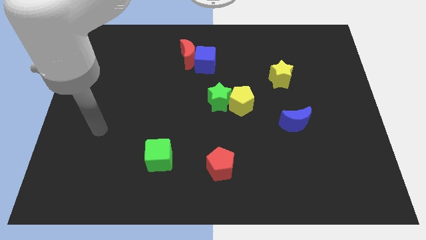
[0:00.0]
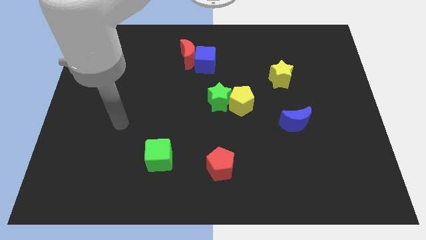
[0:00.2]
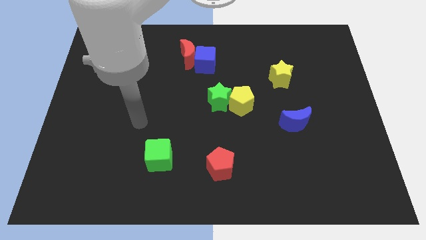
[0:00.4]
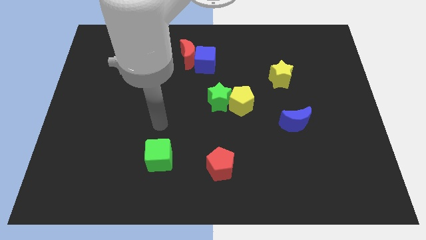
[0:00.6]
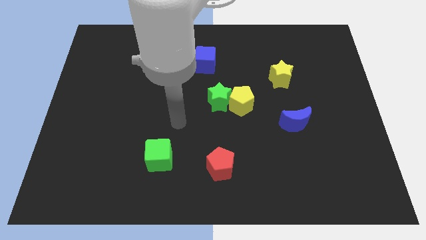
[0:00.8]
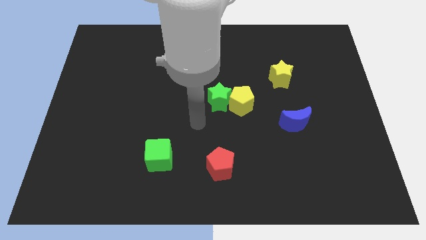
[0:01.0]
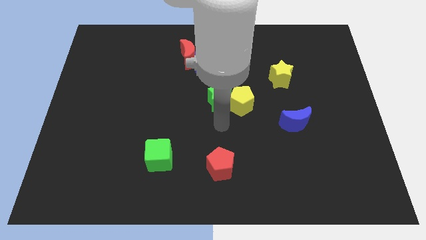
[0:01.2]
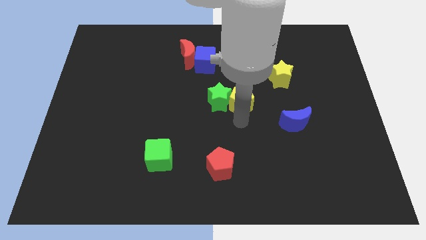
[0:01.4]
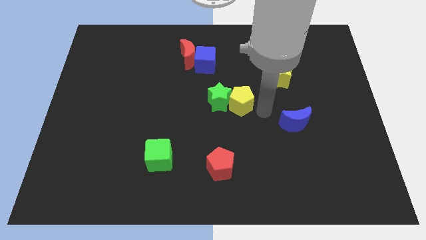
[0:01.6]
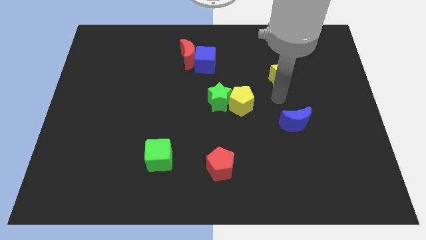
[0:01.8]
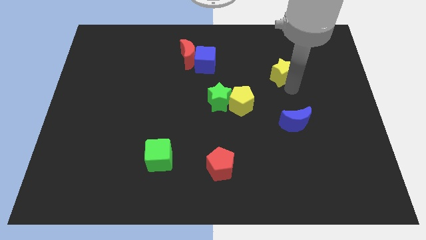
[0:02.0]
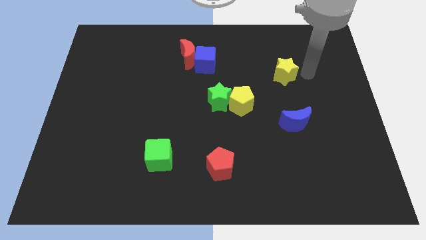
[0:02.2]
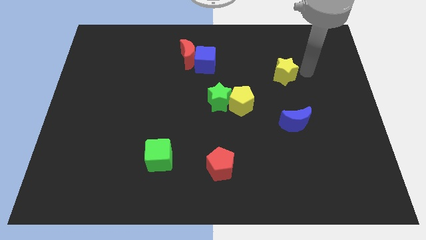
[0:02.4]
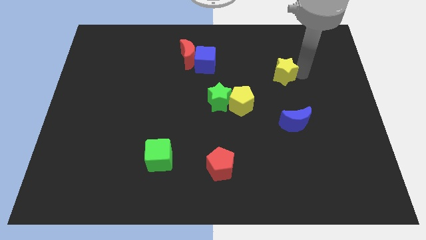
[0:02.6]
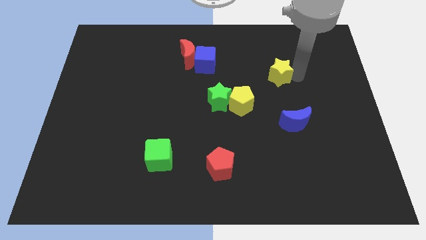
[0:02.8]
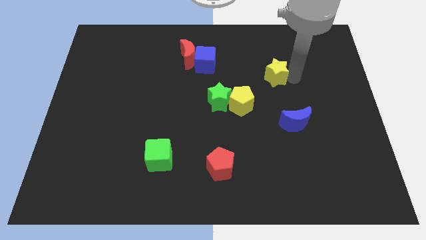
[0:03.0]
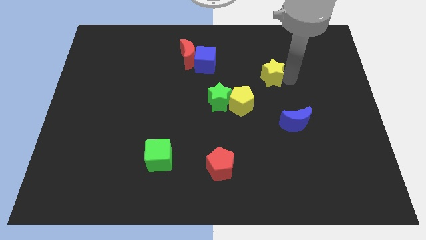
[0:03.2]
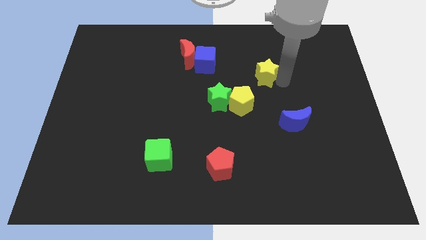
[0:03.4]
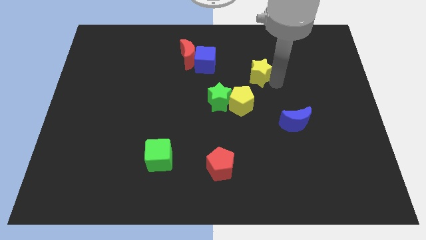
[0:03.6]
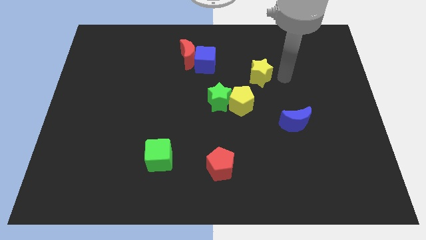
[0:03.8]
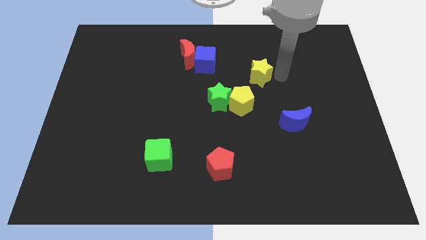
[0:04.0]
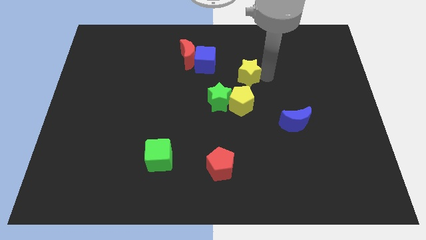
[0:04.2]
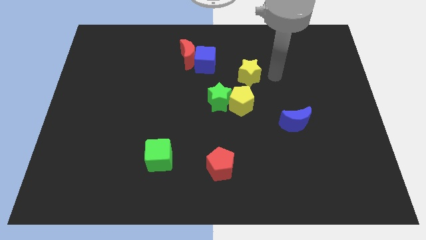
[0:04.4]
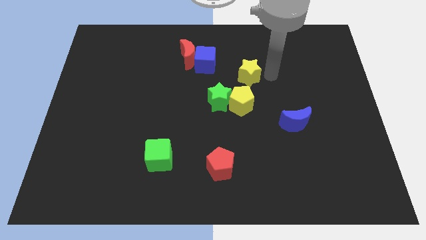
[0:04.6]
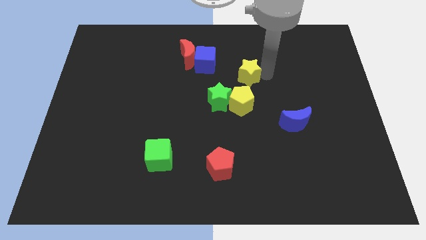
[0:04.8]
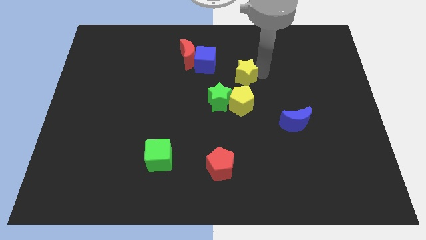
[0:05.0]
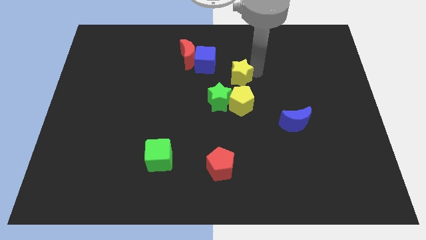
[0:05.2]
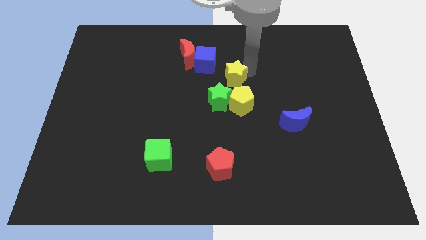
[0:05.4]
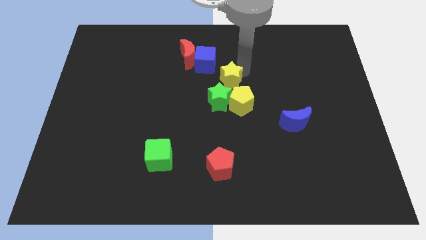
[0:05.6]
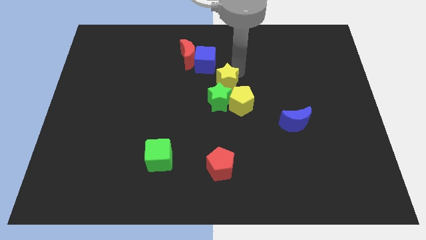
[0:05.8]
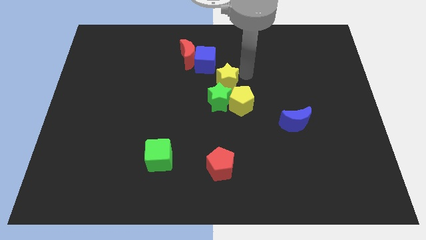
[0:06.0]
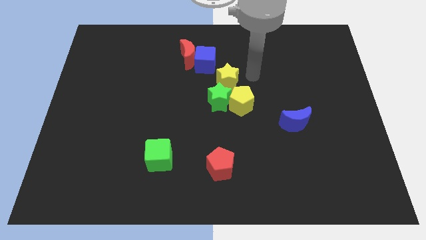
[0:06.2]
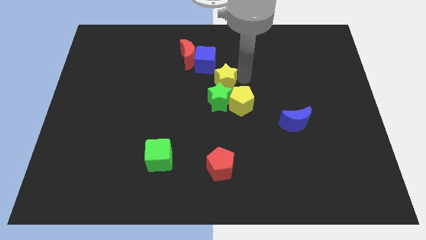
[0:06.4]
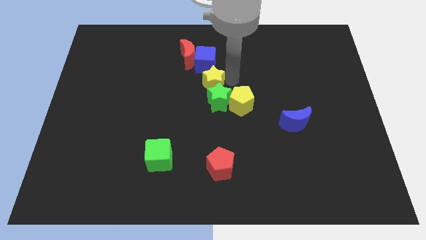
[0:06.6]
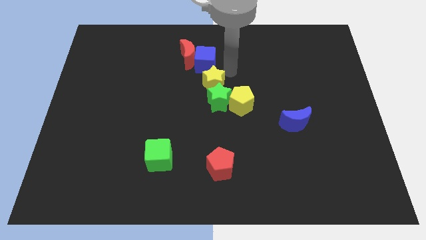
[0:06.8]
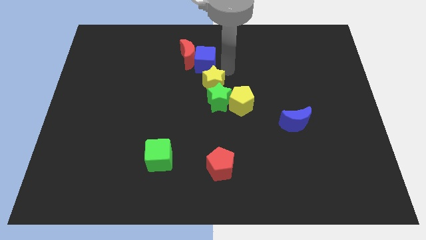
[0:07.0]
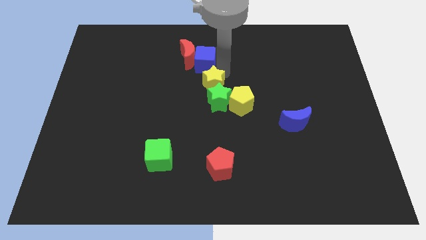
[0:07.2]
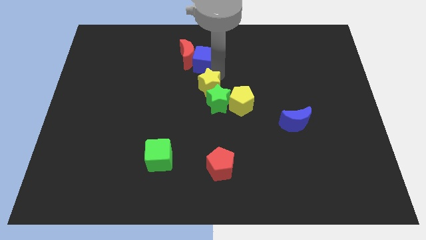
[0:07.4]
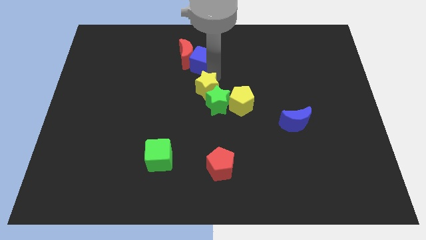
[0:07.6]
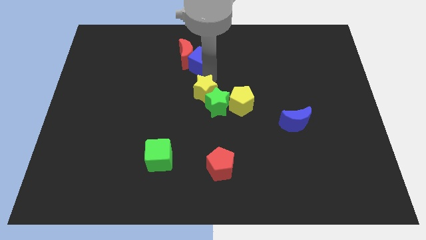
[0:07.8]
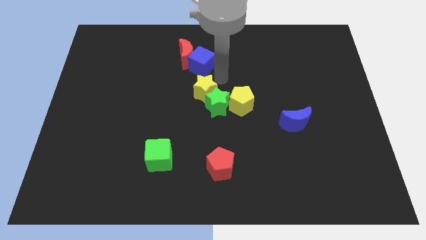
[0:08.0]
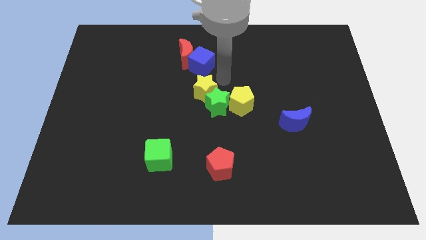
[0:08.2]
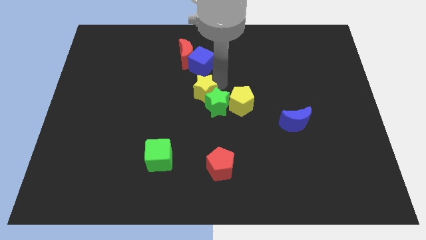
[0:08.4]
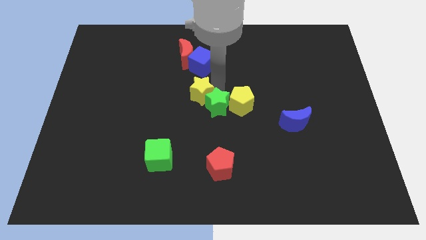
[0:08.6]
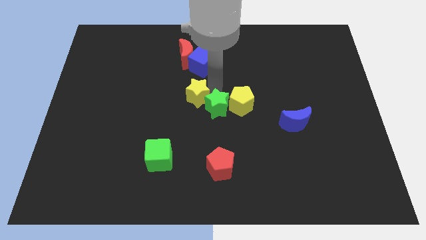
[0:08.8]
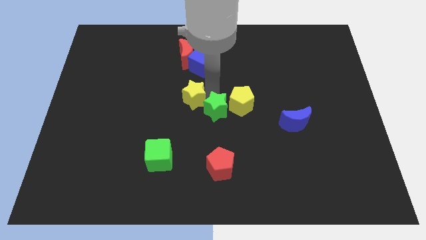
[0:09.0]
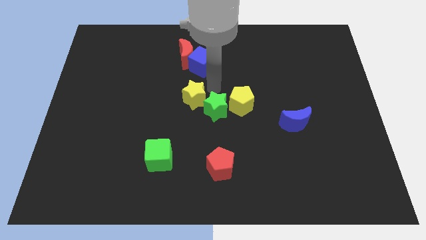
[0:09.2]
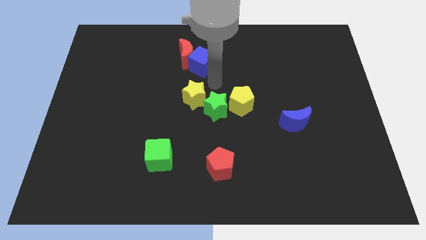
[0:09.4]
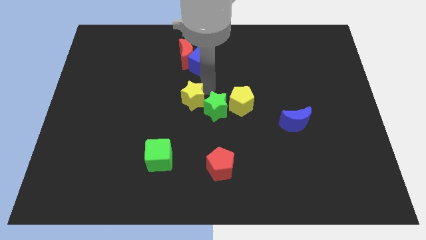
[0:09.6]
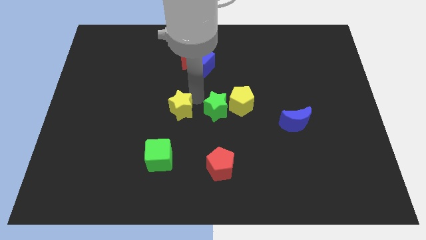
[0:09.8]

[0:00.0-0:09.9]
put the yellow star above the green cube

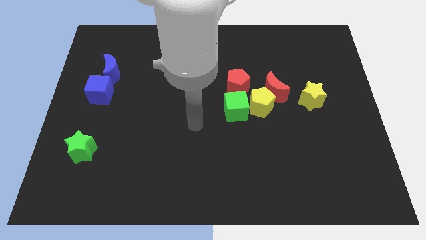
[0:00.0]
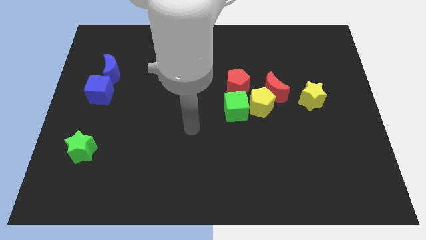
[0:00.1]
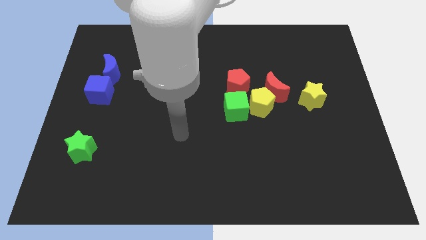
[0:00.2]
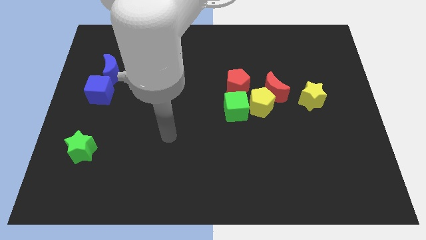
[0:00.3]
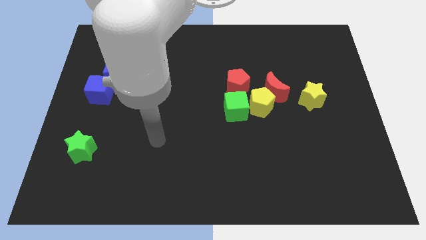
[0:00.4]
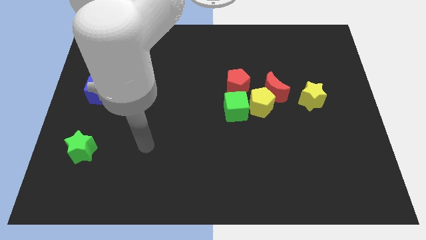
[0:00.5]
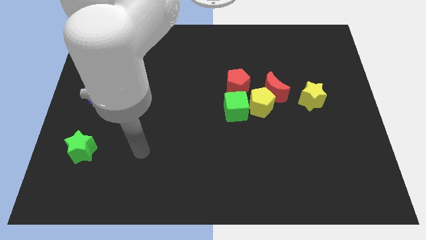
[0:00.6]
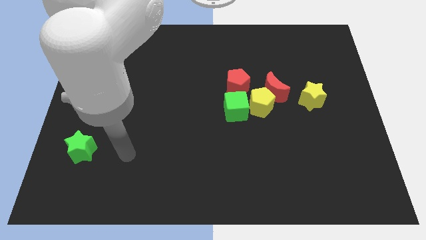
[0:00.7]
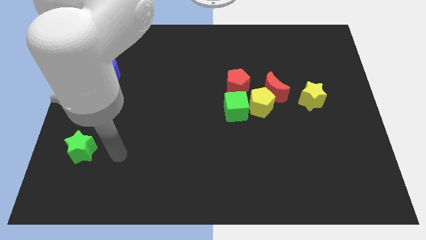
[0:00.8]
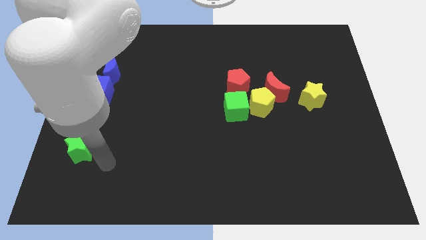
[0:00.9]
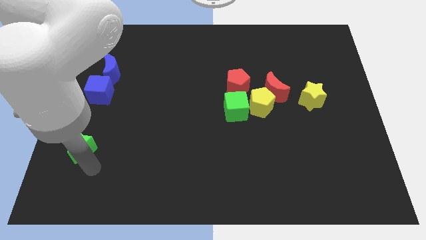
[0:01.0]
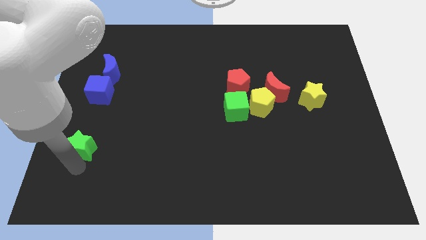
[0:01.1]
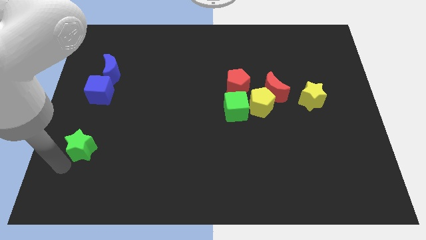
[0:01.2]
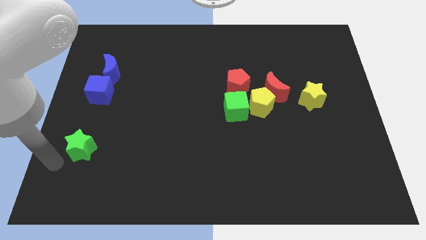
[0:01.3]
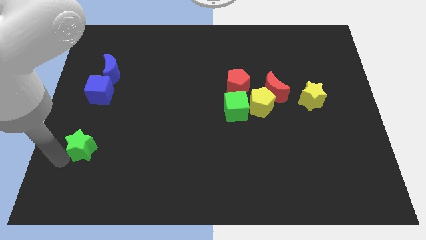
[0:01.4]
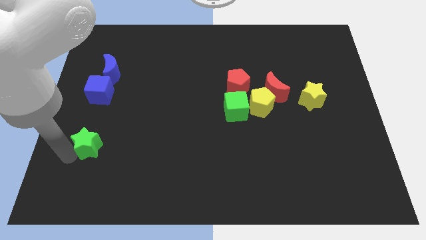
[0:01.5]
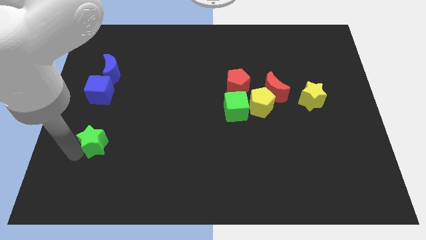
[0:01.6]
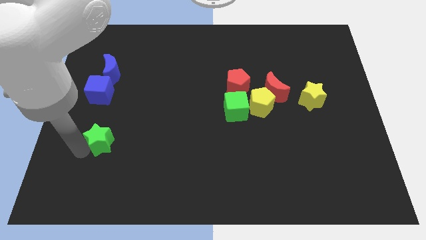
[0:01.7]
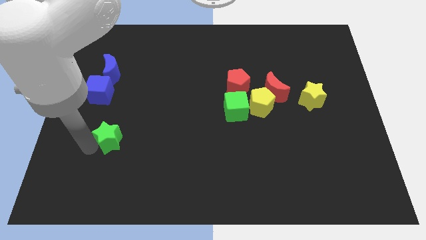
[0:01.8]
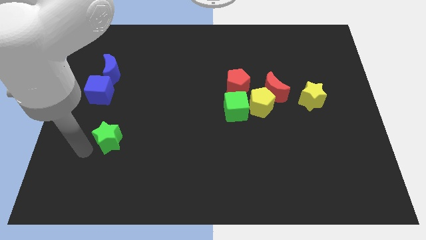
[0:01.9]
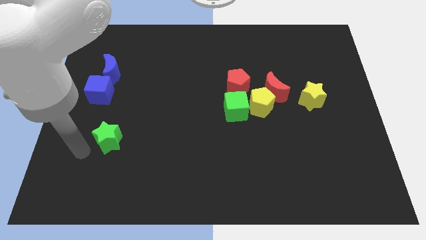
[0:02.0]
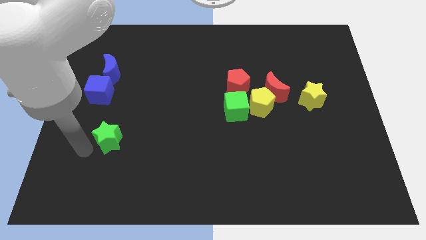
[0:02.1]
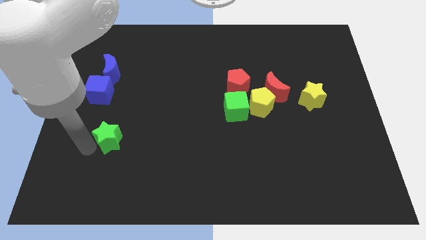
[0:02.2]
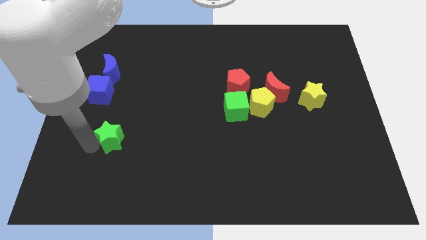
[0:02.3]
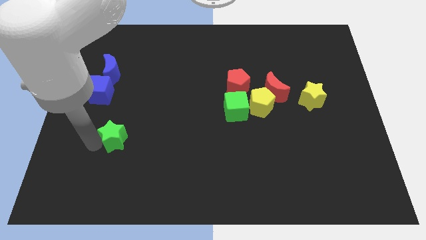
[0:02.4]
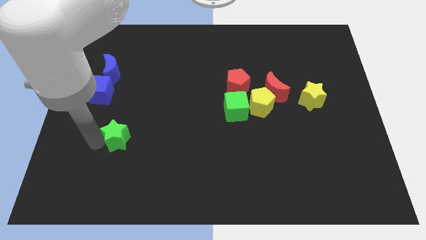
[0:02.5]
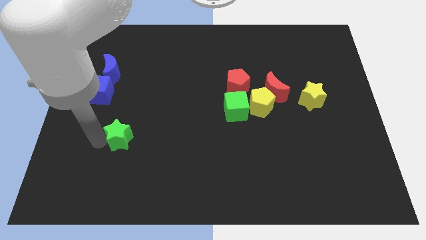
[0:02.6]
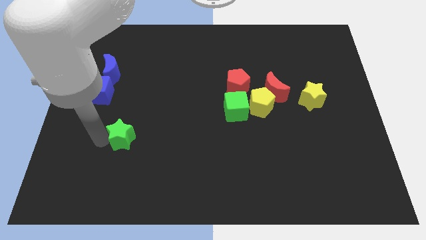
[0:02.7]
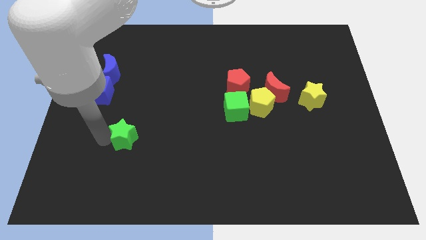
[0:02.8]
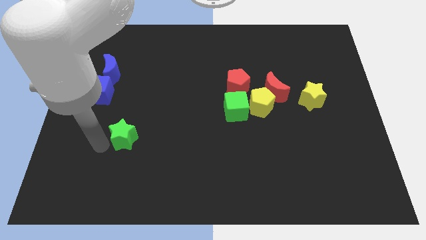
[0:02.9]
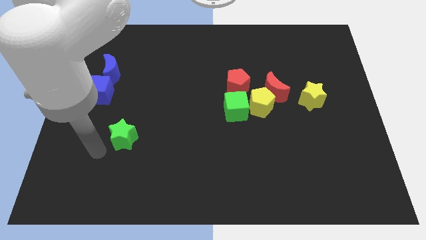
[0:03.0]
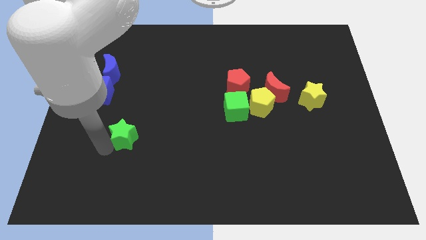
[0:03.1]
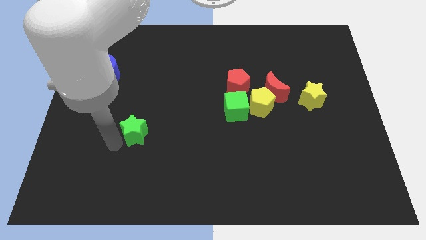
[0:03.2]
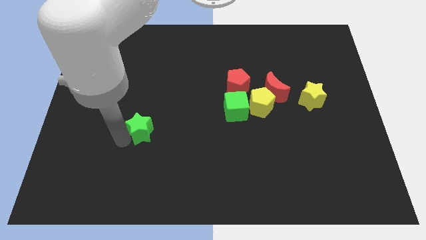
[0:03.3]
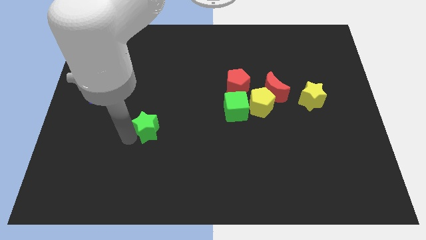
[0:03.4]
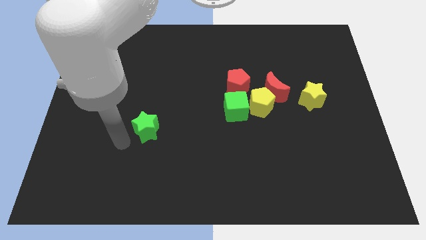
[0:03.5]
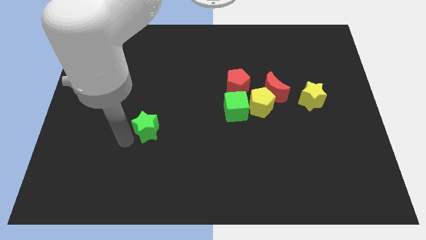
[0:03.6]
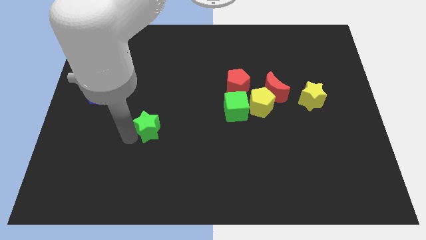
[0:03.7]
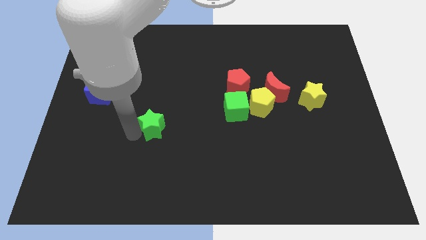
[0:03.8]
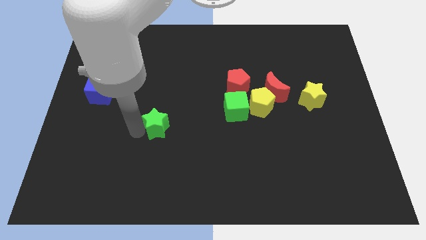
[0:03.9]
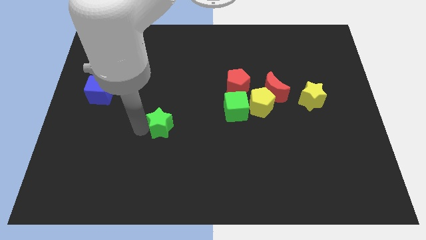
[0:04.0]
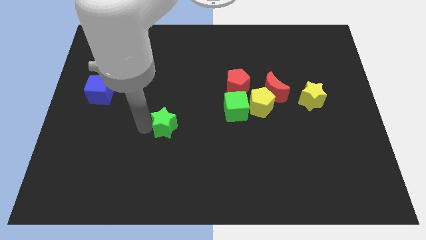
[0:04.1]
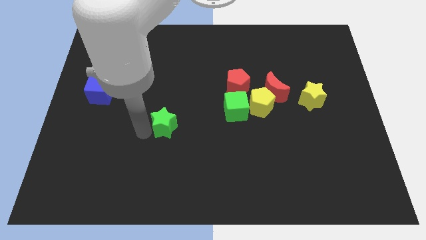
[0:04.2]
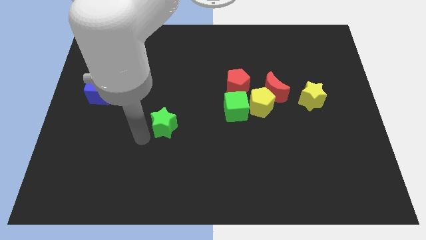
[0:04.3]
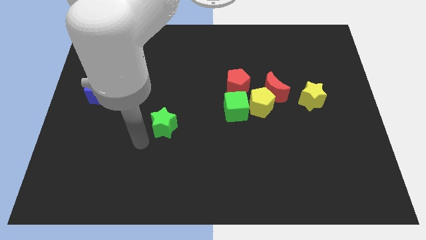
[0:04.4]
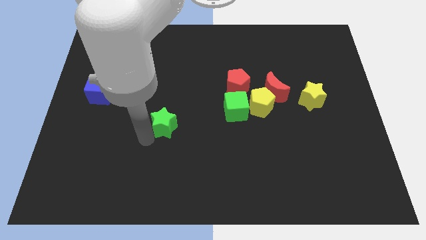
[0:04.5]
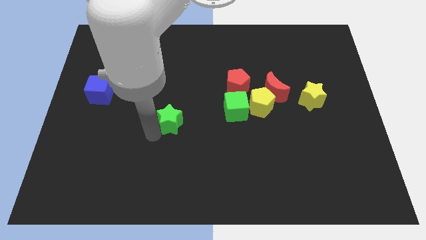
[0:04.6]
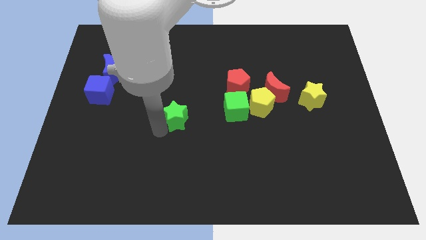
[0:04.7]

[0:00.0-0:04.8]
push the green star to the left side of the green cube
